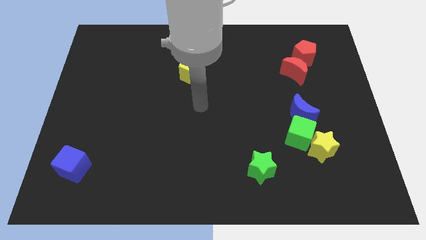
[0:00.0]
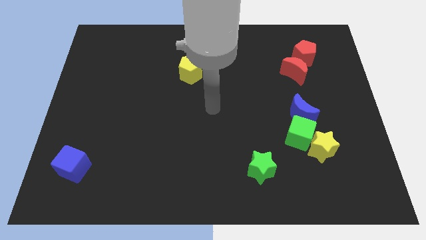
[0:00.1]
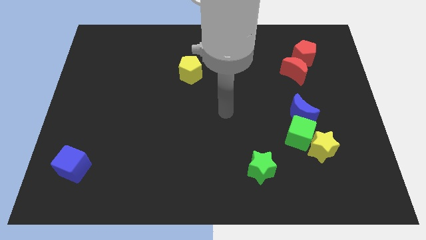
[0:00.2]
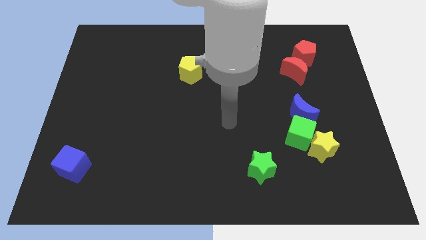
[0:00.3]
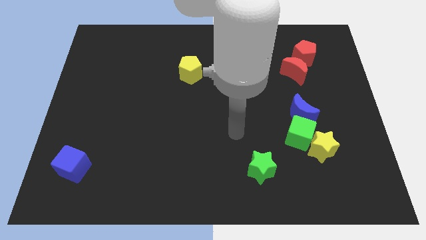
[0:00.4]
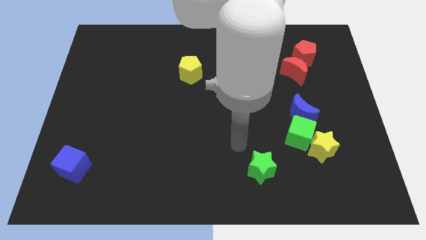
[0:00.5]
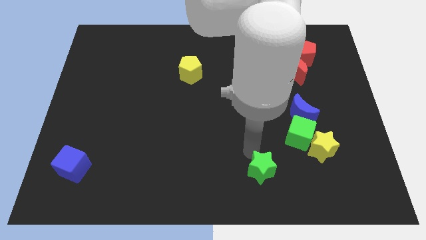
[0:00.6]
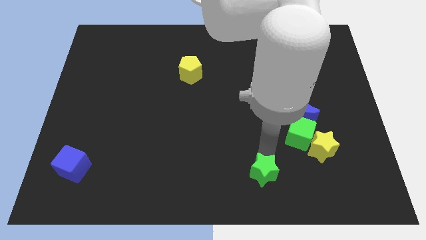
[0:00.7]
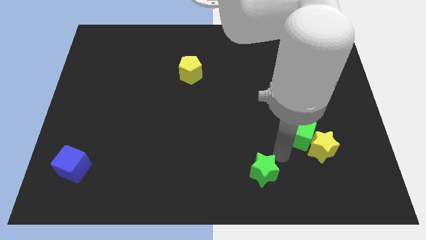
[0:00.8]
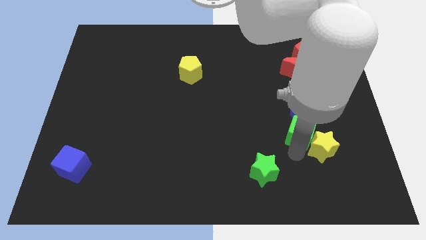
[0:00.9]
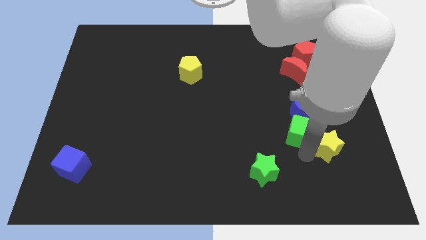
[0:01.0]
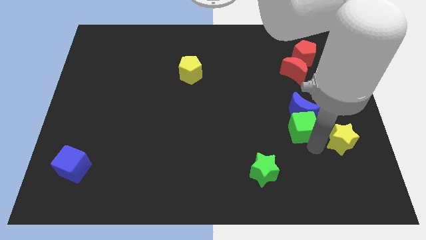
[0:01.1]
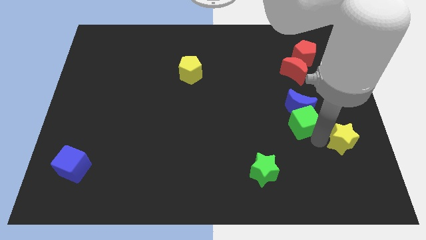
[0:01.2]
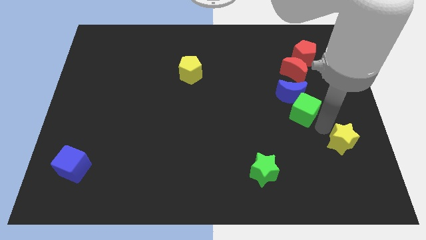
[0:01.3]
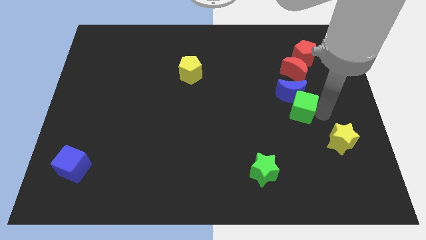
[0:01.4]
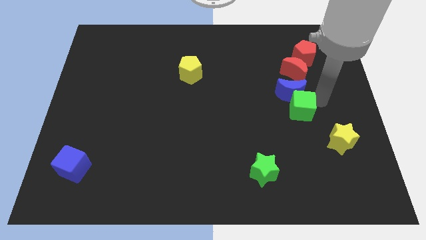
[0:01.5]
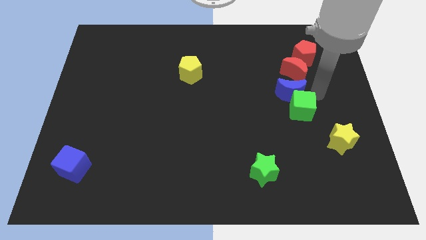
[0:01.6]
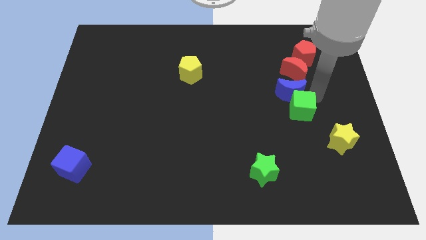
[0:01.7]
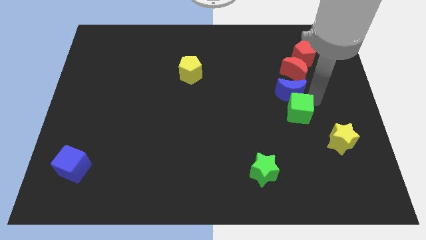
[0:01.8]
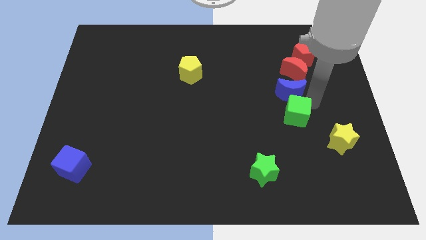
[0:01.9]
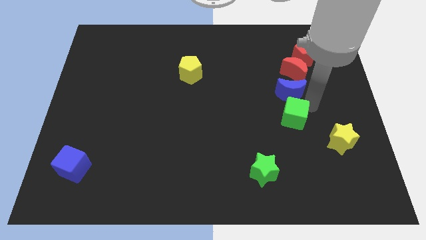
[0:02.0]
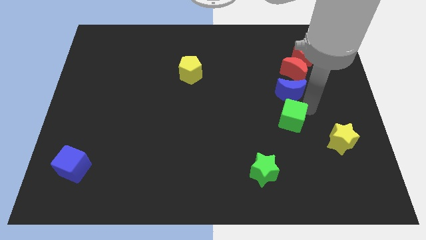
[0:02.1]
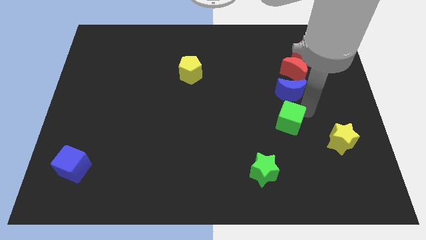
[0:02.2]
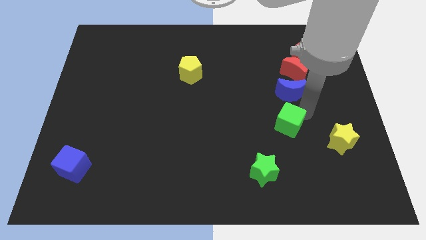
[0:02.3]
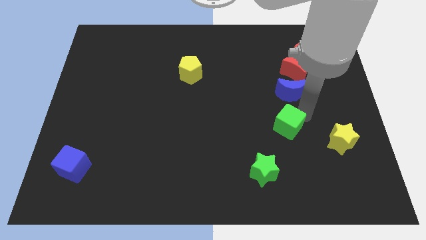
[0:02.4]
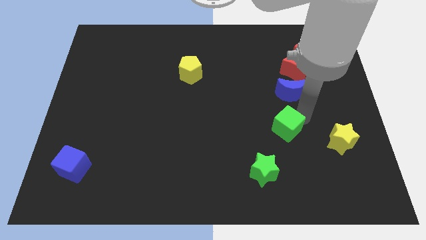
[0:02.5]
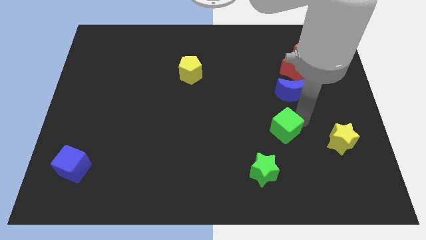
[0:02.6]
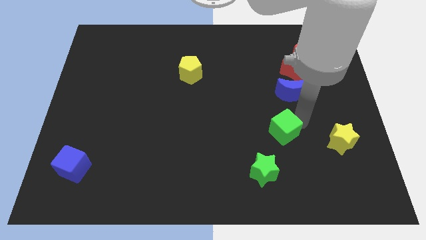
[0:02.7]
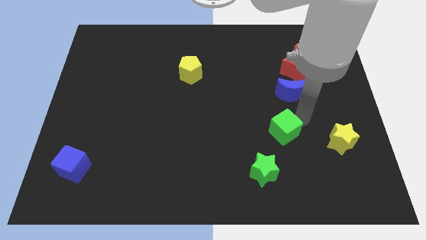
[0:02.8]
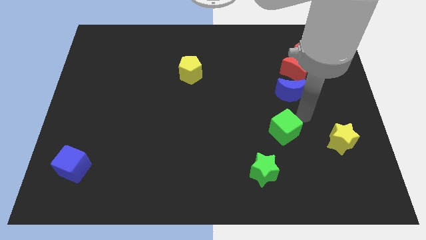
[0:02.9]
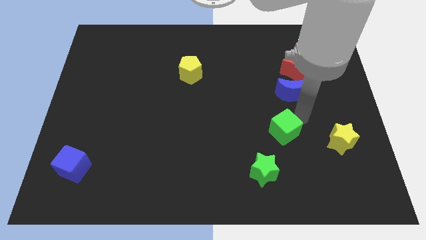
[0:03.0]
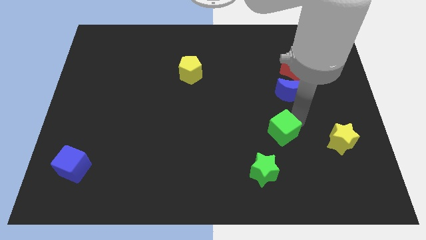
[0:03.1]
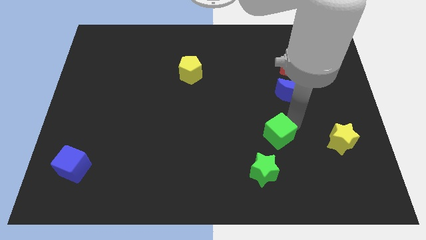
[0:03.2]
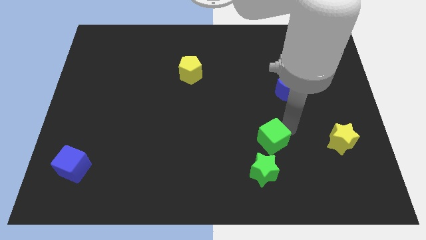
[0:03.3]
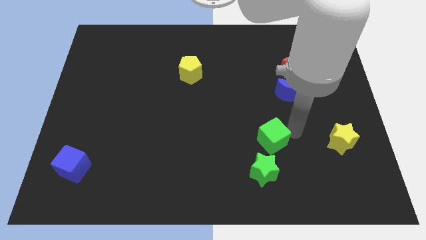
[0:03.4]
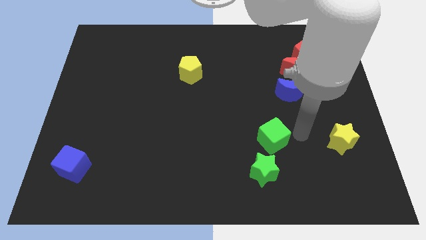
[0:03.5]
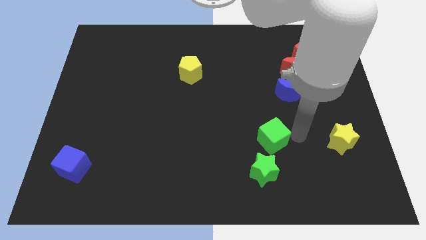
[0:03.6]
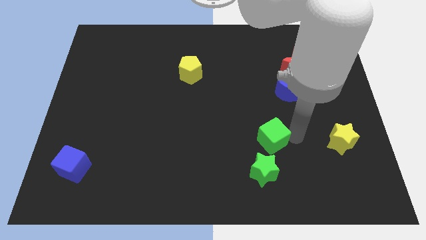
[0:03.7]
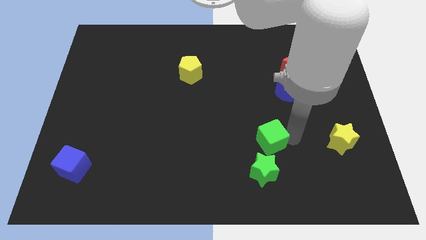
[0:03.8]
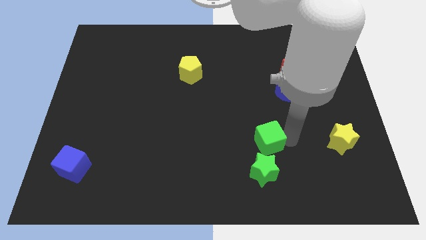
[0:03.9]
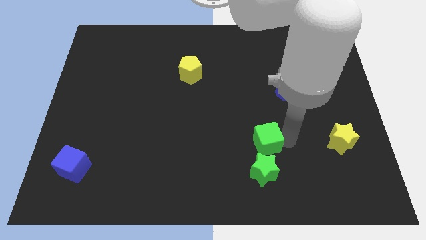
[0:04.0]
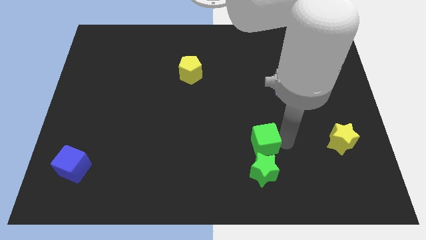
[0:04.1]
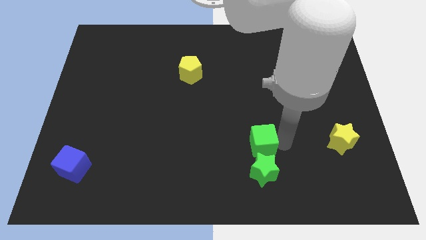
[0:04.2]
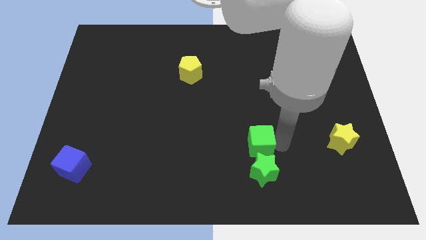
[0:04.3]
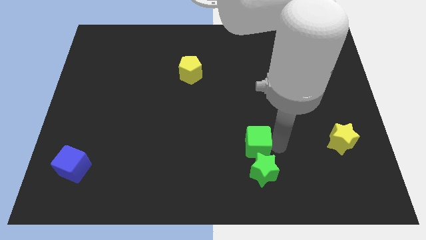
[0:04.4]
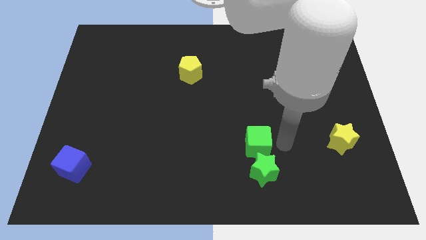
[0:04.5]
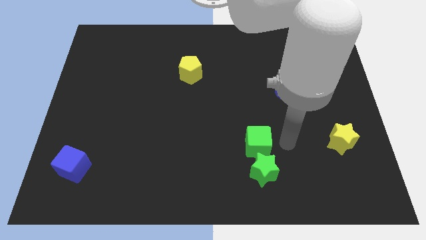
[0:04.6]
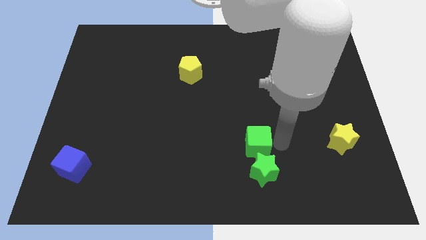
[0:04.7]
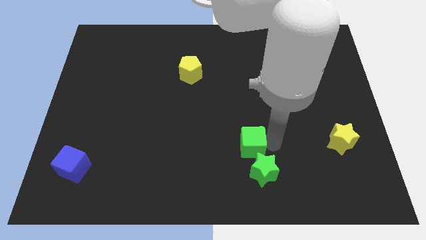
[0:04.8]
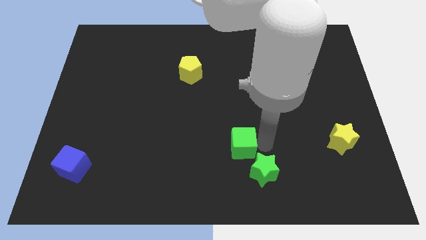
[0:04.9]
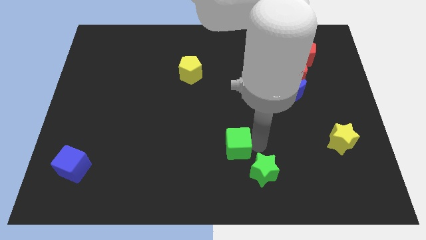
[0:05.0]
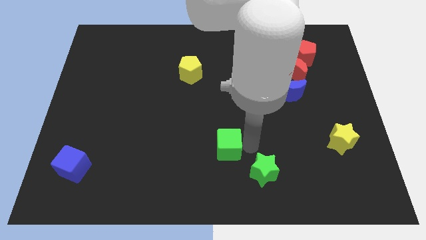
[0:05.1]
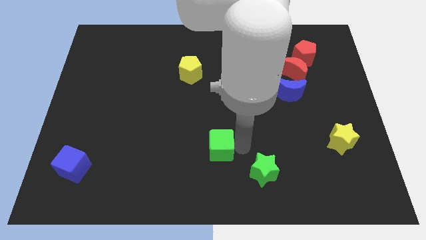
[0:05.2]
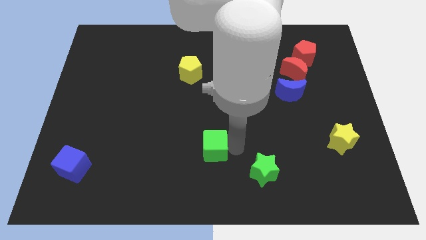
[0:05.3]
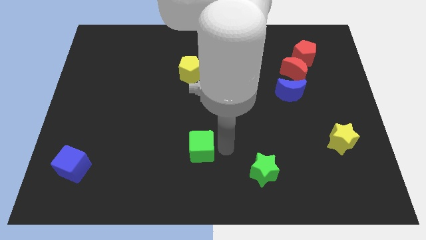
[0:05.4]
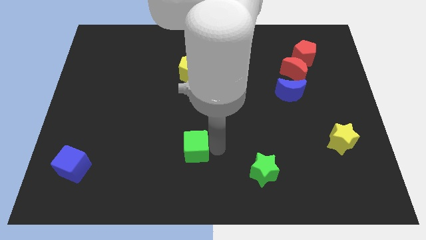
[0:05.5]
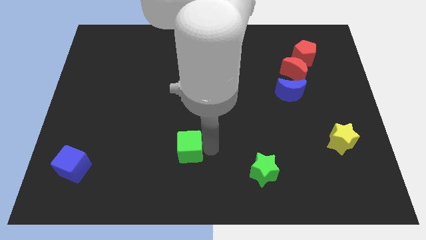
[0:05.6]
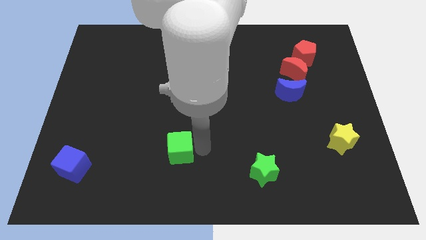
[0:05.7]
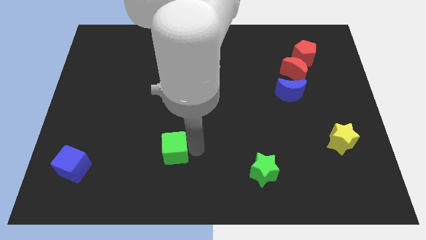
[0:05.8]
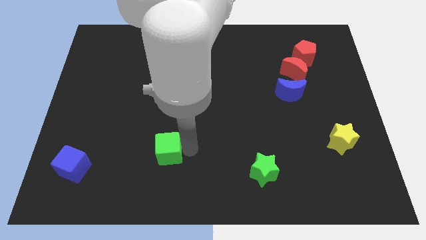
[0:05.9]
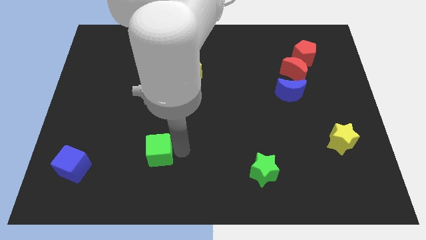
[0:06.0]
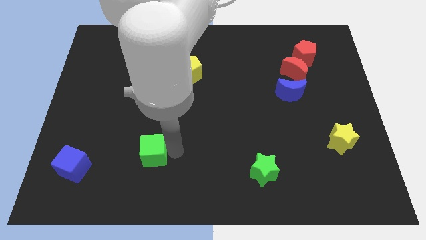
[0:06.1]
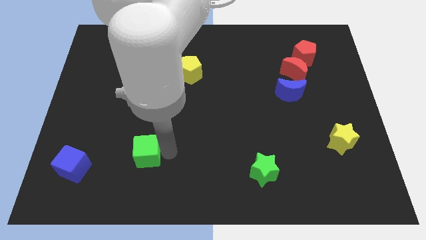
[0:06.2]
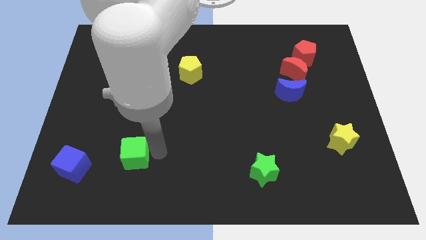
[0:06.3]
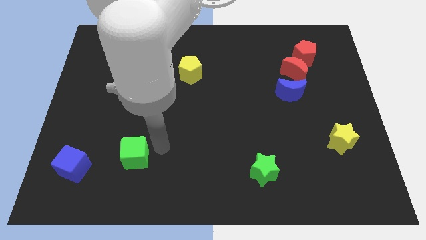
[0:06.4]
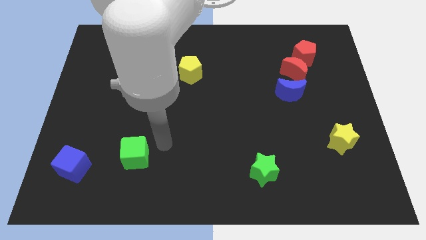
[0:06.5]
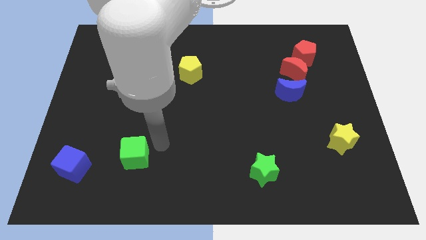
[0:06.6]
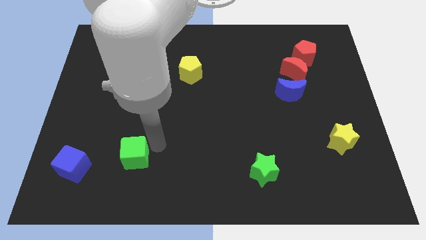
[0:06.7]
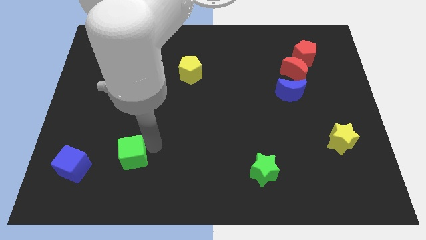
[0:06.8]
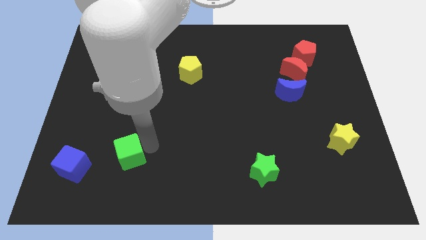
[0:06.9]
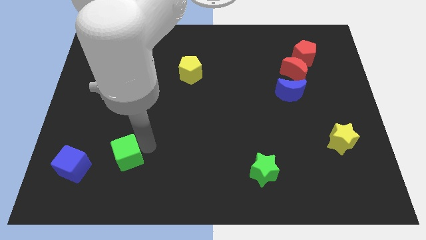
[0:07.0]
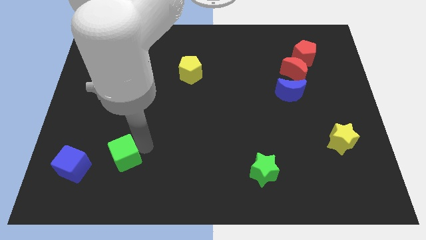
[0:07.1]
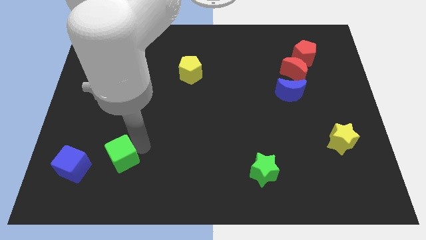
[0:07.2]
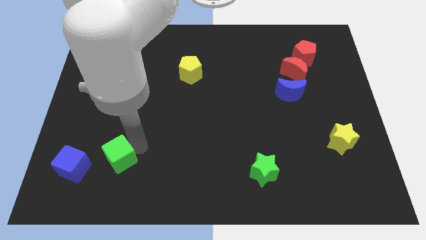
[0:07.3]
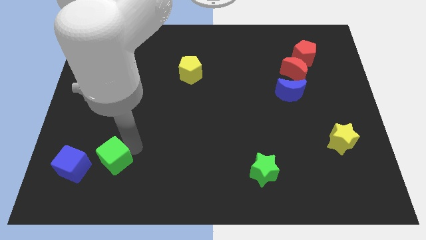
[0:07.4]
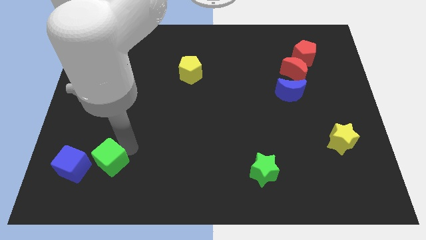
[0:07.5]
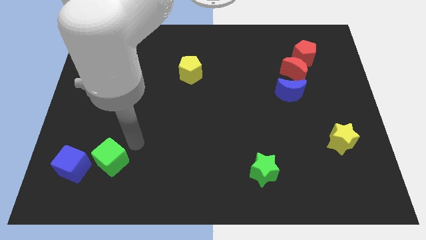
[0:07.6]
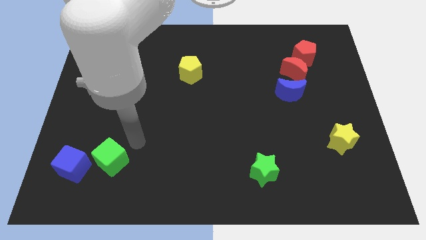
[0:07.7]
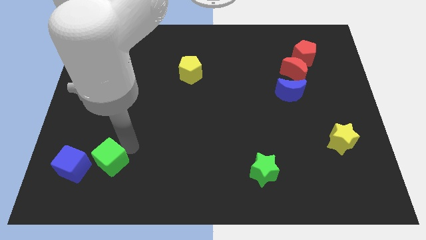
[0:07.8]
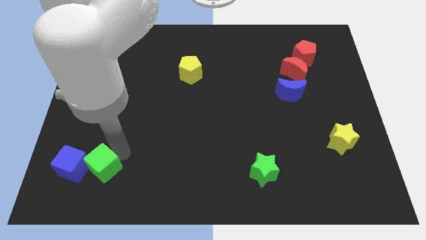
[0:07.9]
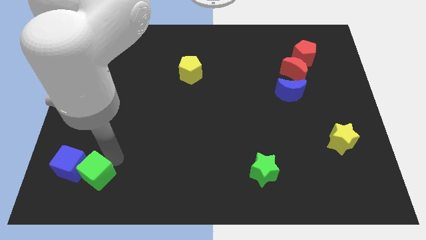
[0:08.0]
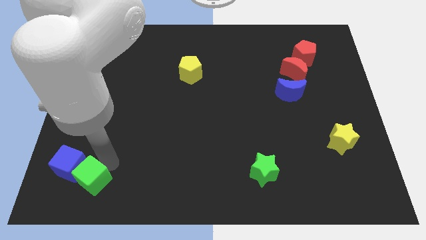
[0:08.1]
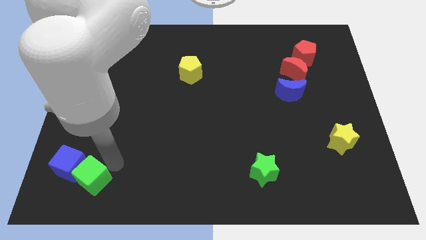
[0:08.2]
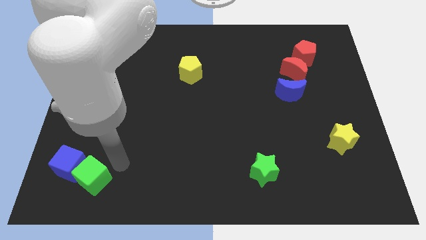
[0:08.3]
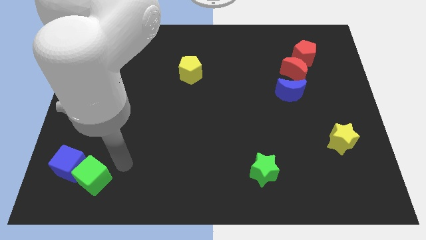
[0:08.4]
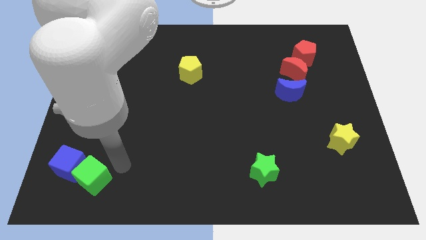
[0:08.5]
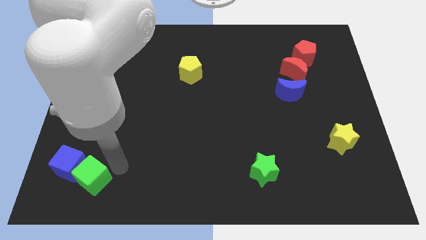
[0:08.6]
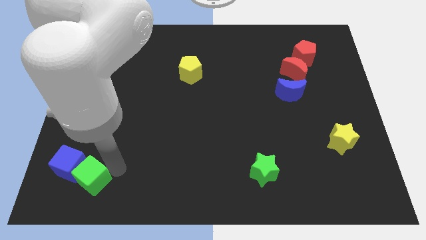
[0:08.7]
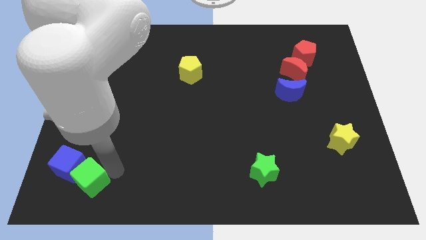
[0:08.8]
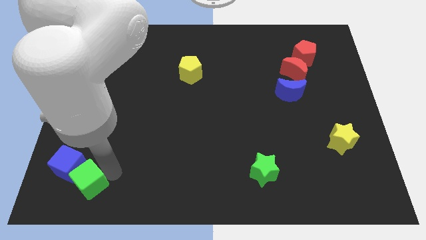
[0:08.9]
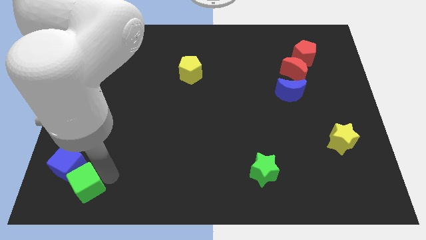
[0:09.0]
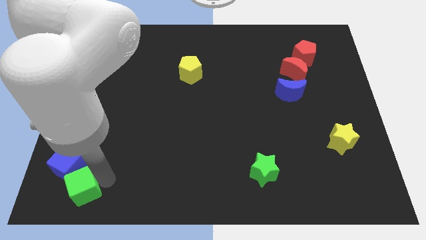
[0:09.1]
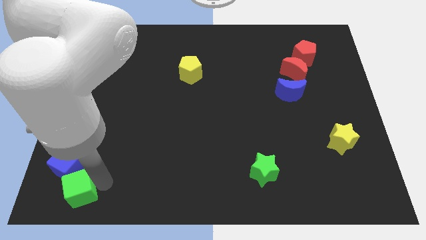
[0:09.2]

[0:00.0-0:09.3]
move the green cube to the bottom left of the board
